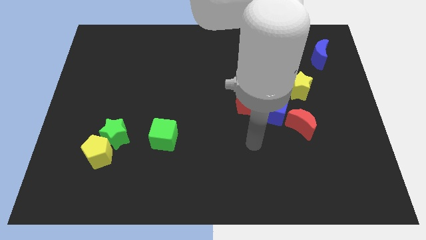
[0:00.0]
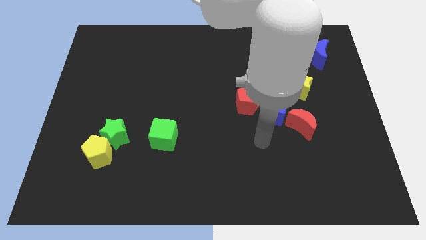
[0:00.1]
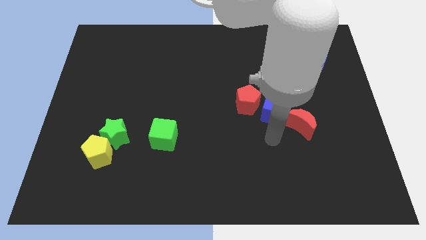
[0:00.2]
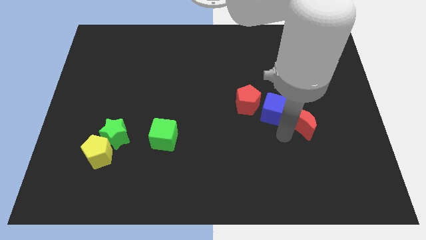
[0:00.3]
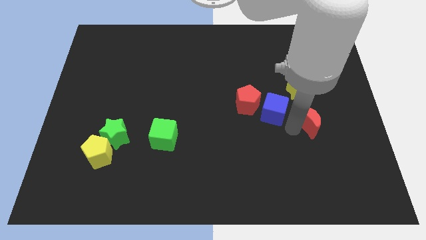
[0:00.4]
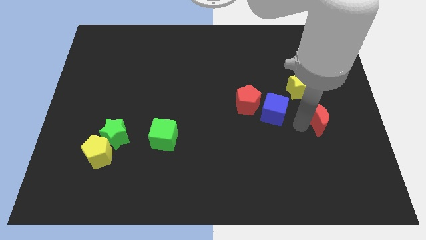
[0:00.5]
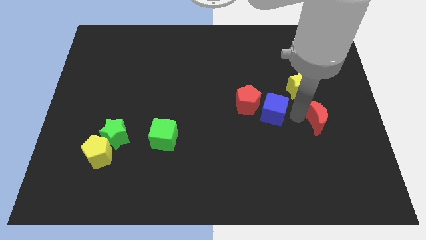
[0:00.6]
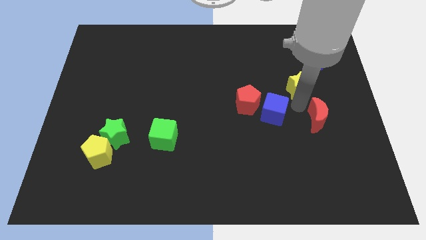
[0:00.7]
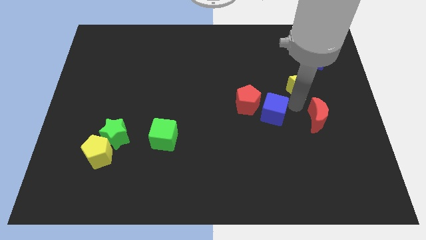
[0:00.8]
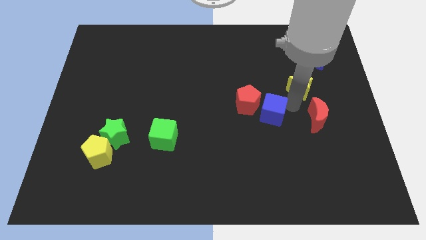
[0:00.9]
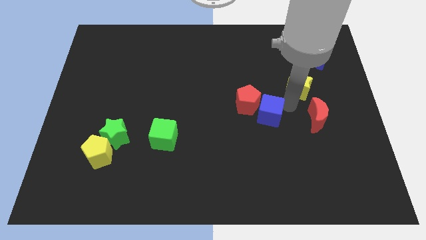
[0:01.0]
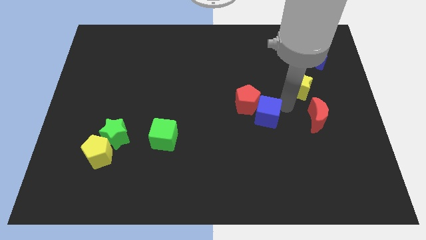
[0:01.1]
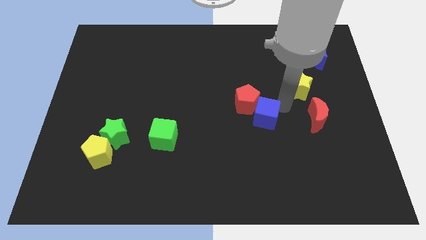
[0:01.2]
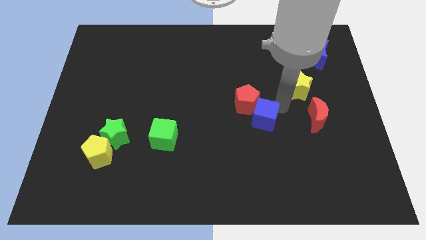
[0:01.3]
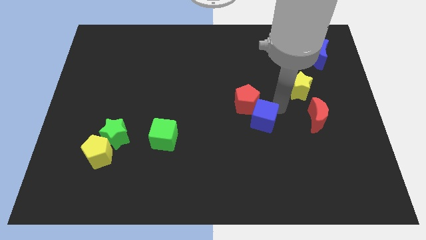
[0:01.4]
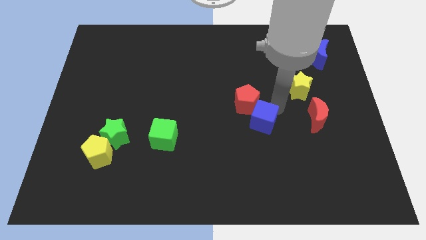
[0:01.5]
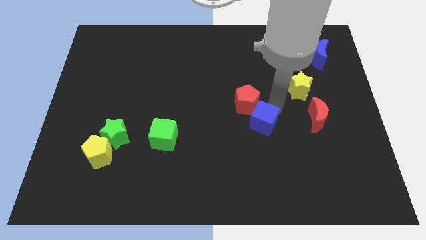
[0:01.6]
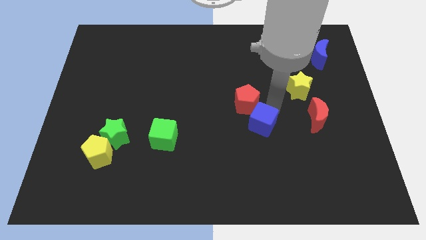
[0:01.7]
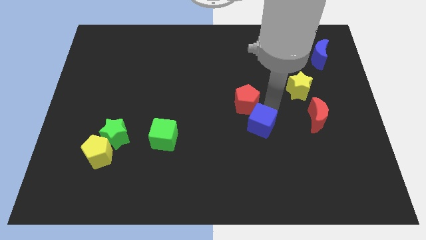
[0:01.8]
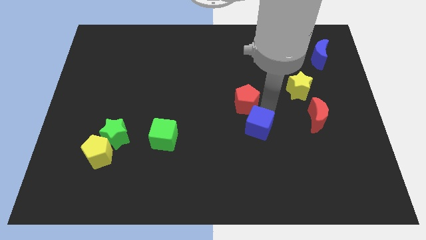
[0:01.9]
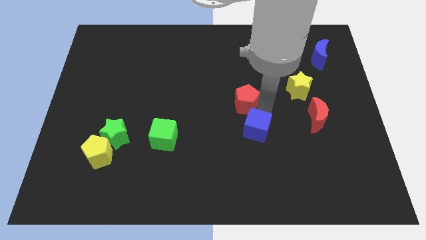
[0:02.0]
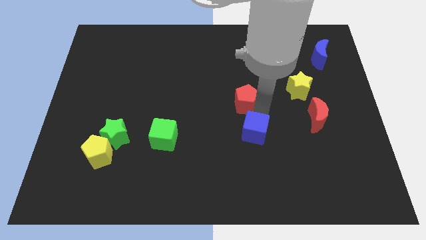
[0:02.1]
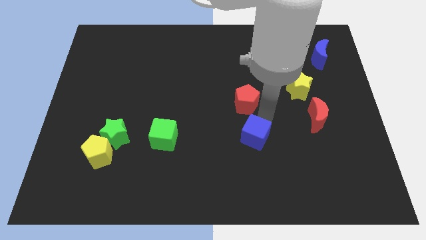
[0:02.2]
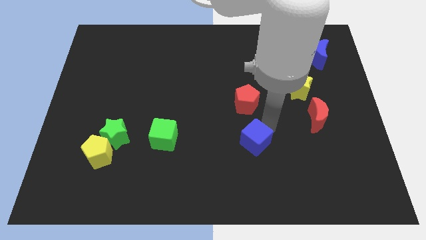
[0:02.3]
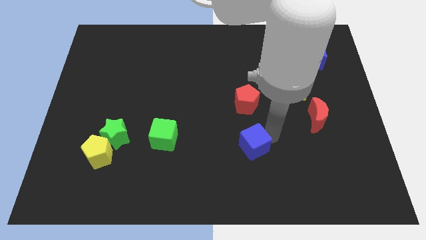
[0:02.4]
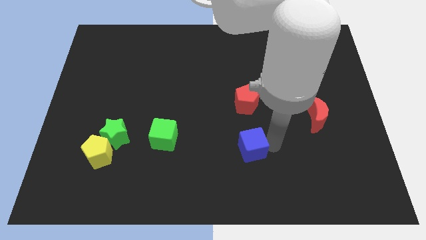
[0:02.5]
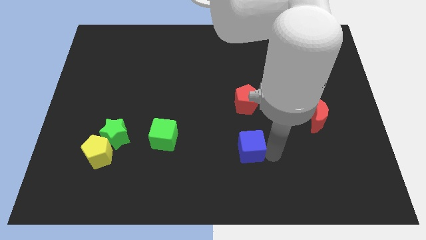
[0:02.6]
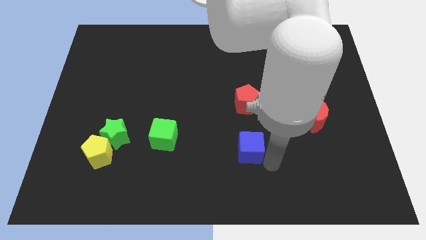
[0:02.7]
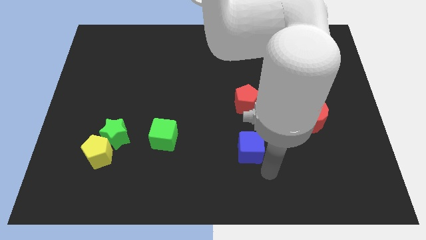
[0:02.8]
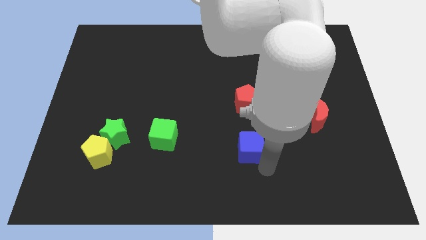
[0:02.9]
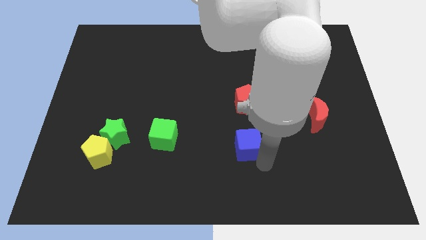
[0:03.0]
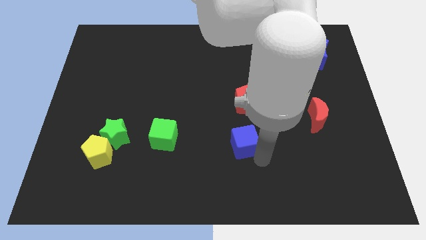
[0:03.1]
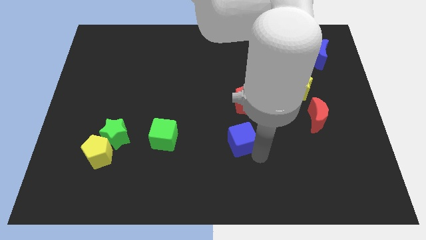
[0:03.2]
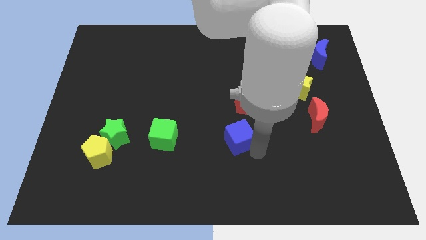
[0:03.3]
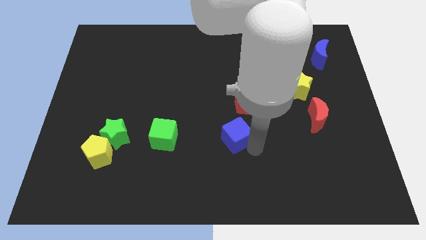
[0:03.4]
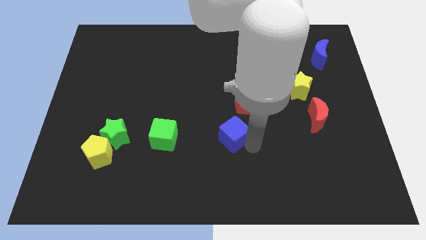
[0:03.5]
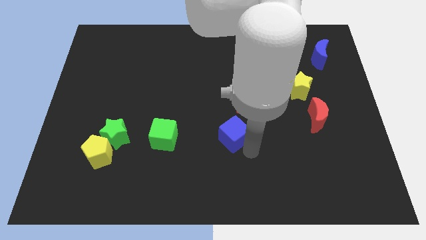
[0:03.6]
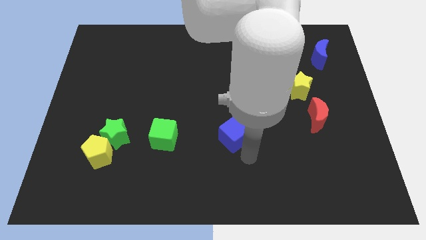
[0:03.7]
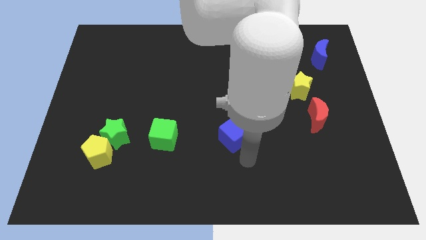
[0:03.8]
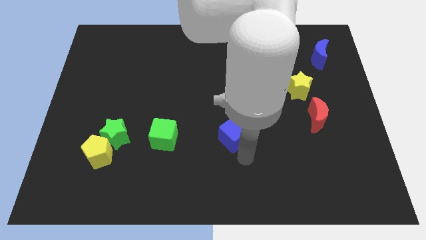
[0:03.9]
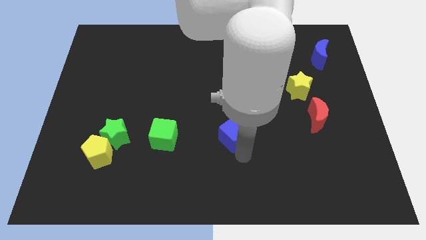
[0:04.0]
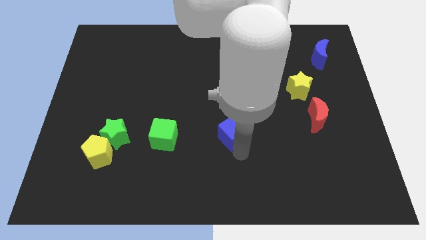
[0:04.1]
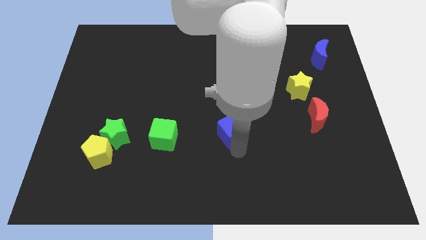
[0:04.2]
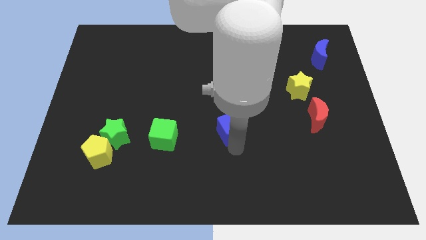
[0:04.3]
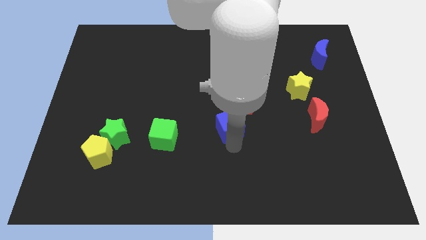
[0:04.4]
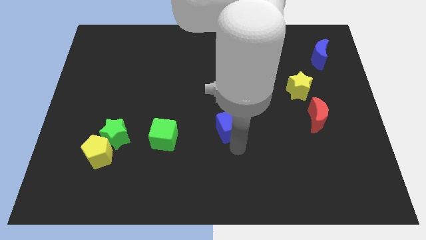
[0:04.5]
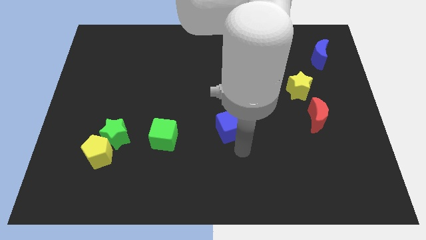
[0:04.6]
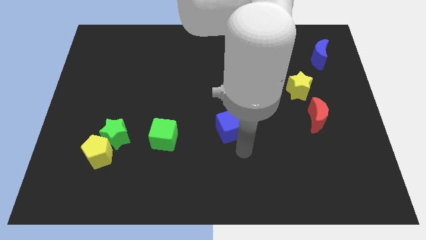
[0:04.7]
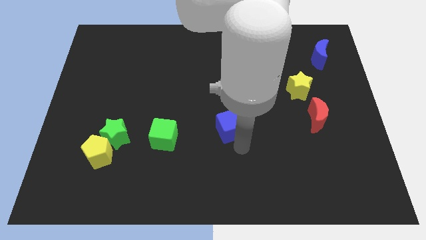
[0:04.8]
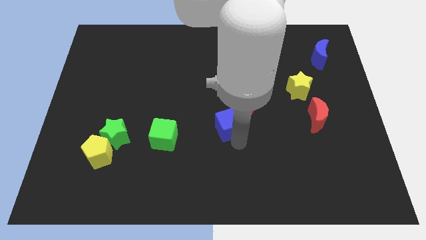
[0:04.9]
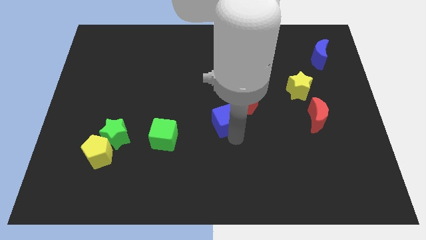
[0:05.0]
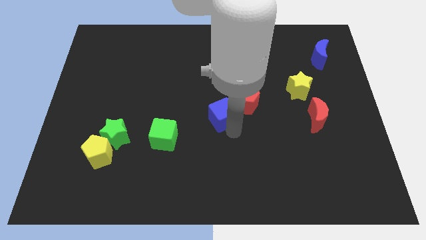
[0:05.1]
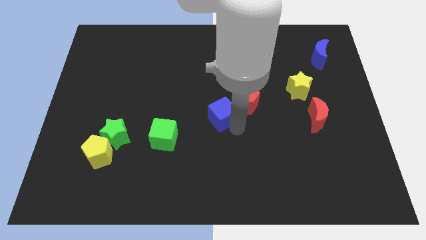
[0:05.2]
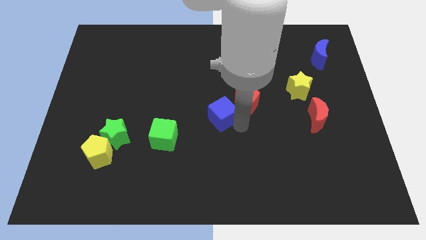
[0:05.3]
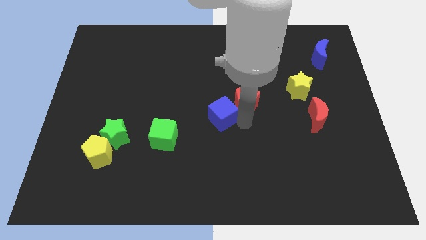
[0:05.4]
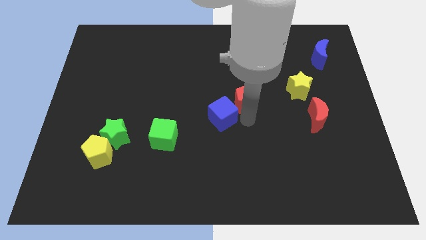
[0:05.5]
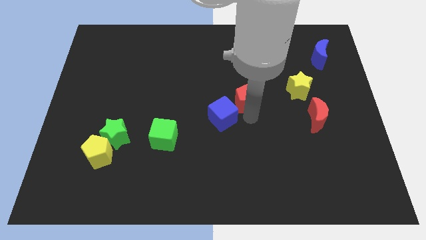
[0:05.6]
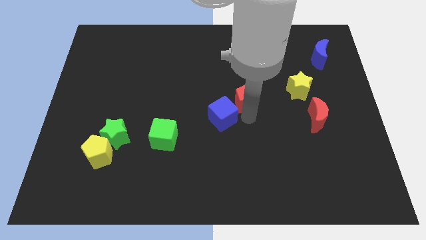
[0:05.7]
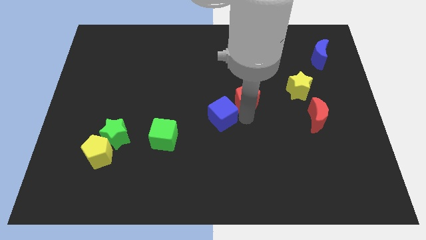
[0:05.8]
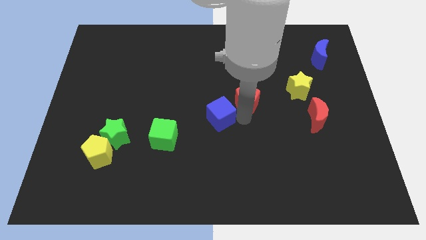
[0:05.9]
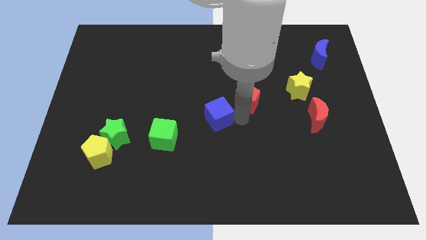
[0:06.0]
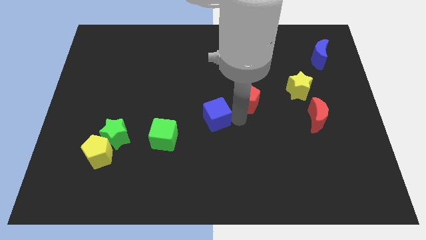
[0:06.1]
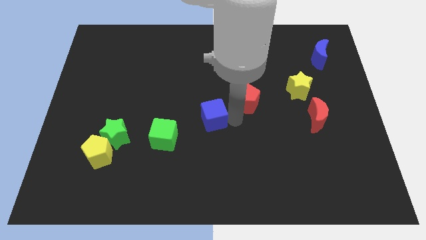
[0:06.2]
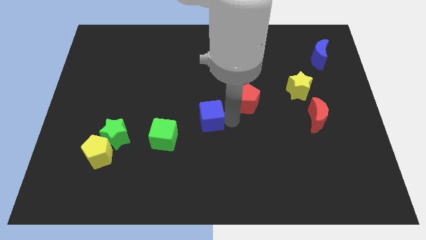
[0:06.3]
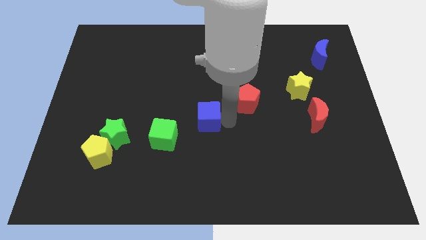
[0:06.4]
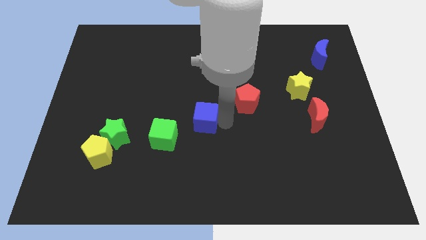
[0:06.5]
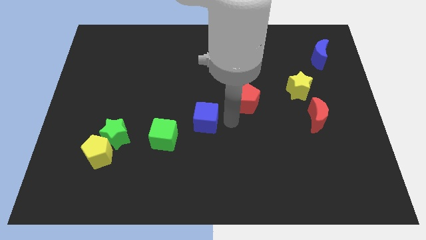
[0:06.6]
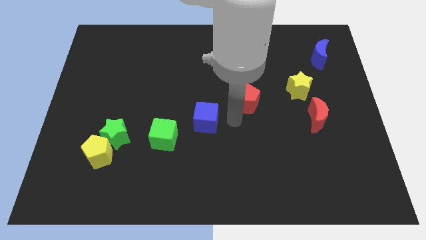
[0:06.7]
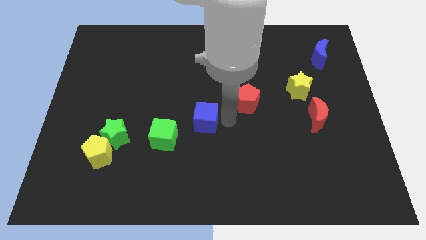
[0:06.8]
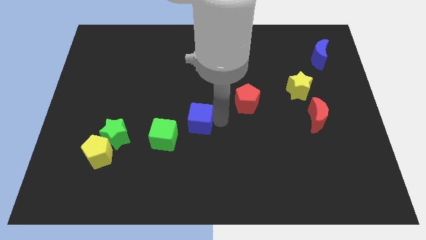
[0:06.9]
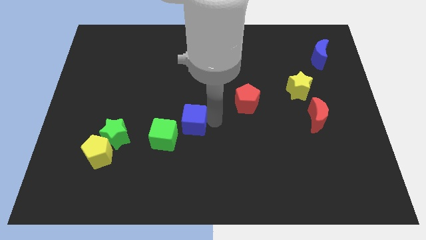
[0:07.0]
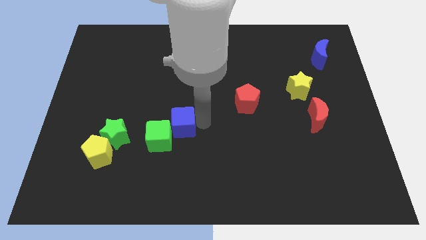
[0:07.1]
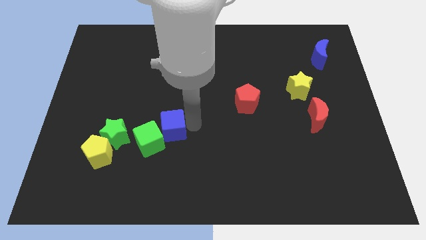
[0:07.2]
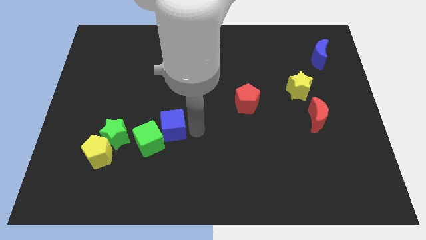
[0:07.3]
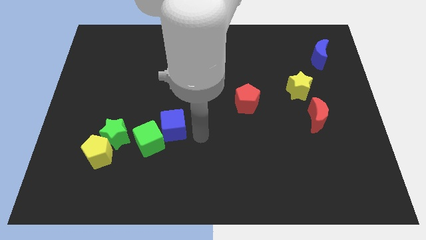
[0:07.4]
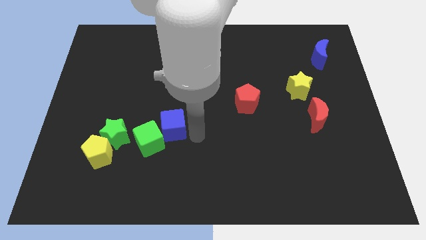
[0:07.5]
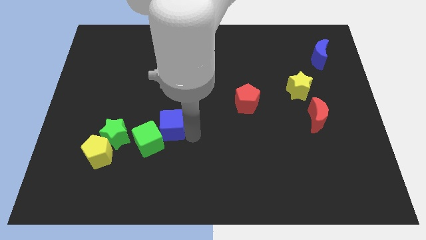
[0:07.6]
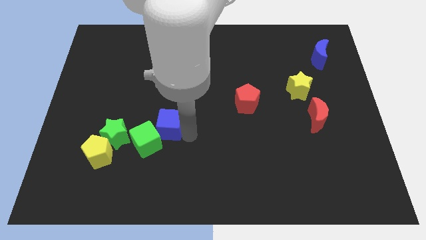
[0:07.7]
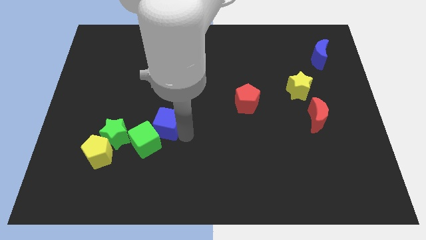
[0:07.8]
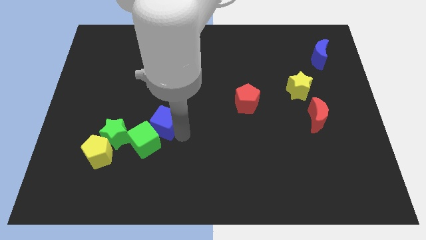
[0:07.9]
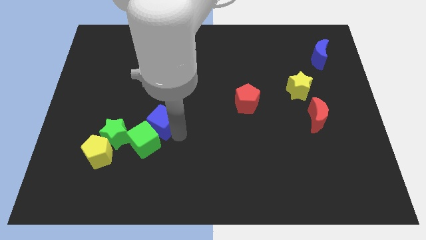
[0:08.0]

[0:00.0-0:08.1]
push the blue cube to the top right side of the green star
